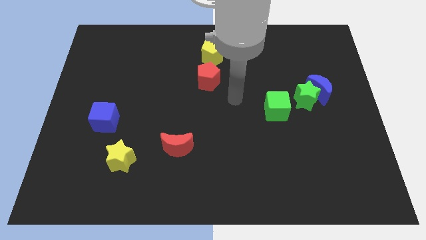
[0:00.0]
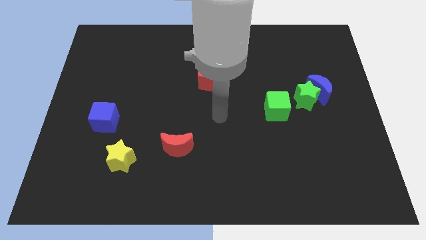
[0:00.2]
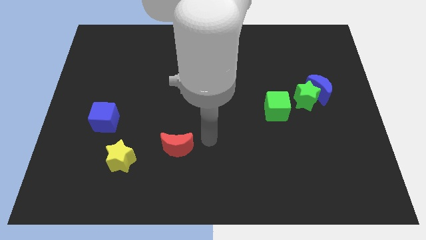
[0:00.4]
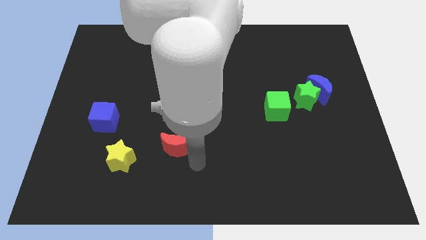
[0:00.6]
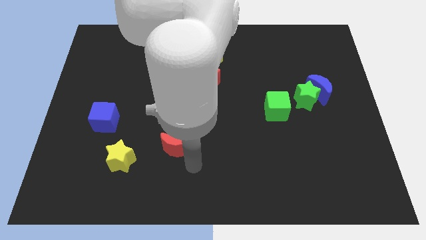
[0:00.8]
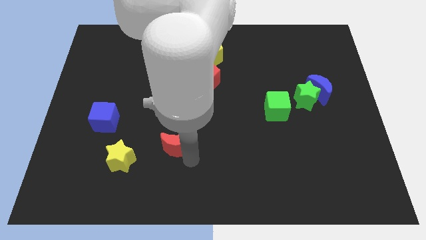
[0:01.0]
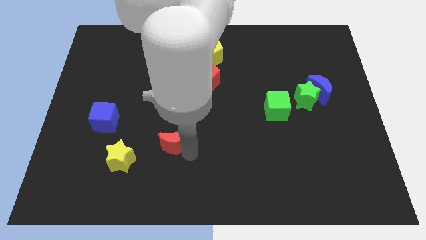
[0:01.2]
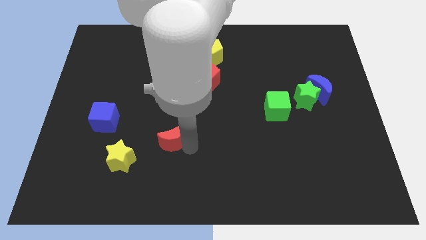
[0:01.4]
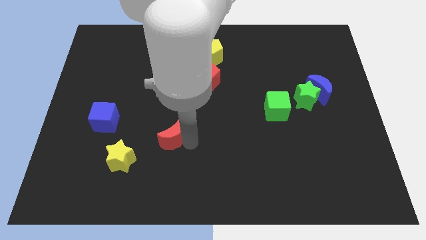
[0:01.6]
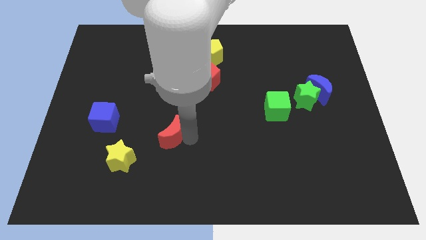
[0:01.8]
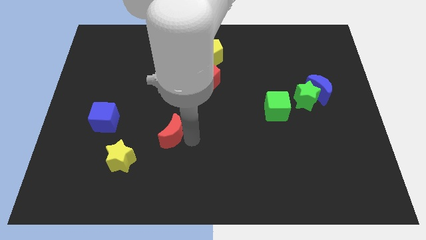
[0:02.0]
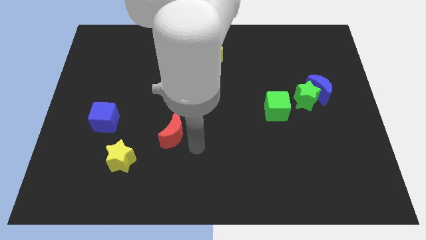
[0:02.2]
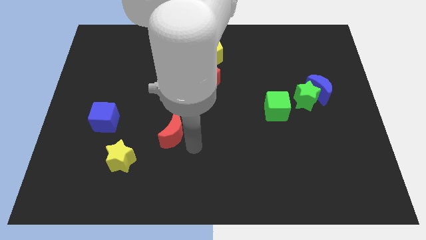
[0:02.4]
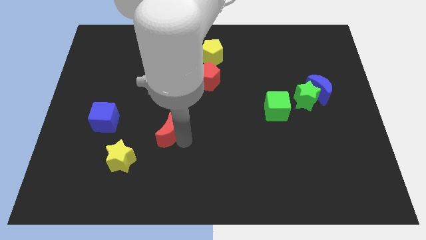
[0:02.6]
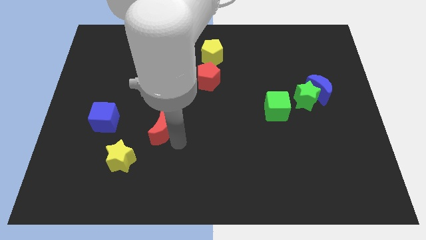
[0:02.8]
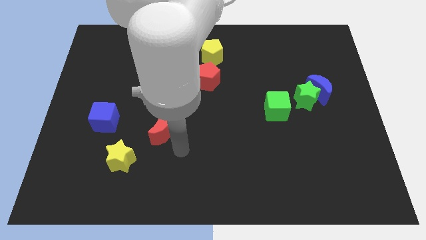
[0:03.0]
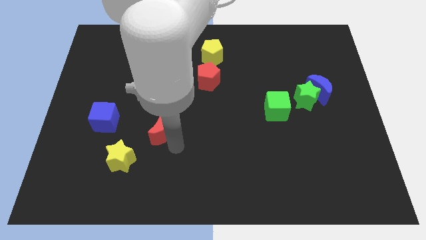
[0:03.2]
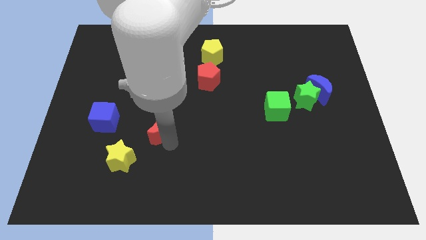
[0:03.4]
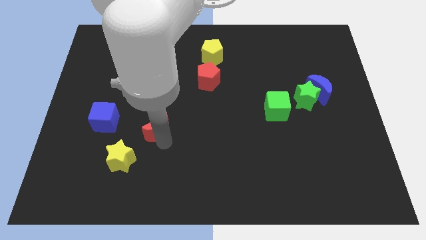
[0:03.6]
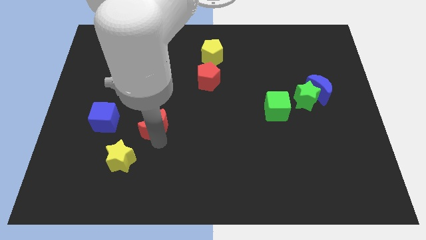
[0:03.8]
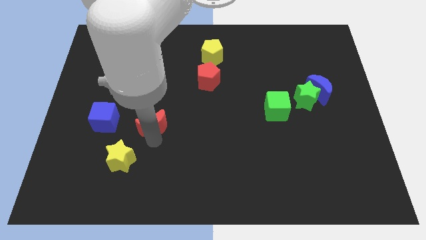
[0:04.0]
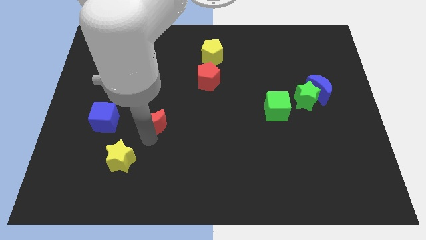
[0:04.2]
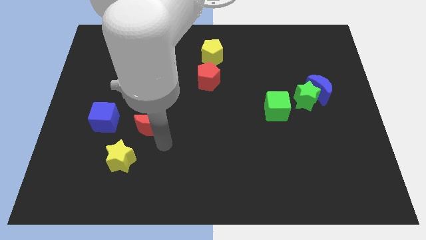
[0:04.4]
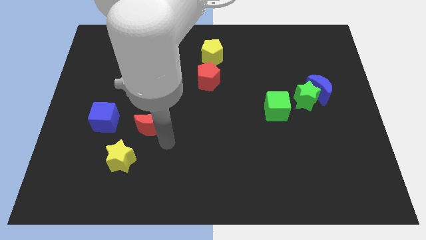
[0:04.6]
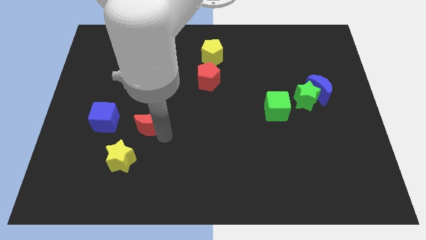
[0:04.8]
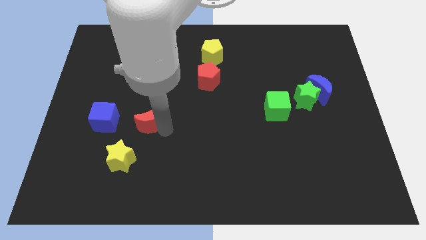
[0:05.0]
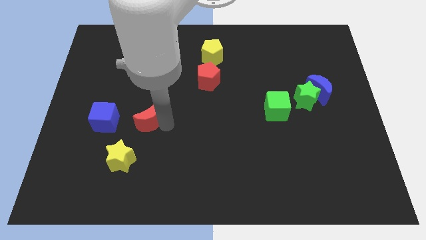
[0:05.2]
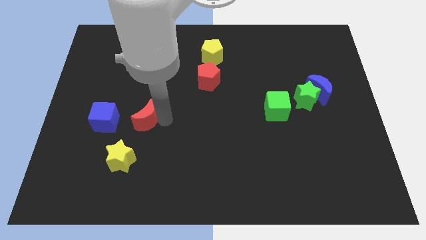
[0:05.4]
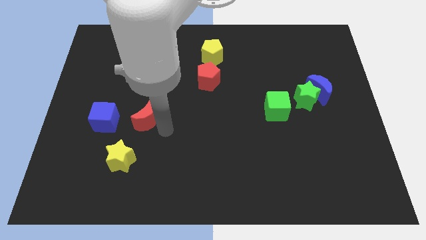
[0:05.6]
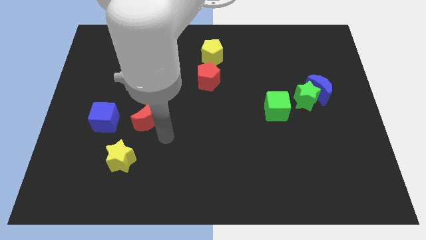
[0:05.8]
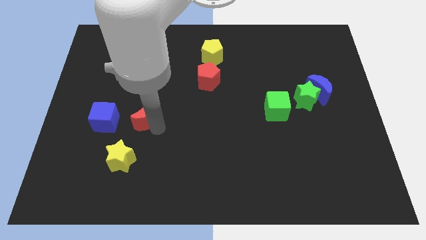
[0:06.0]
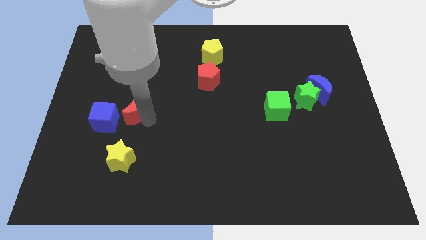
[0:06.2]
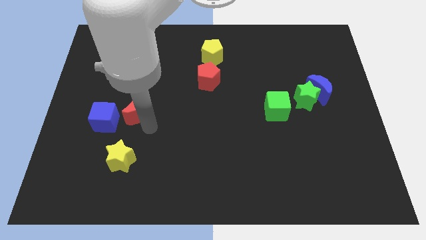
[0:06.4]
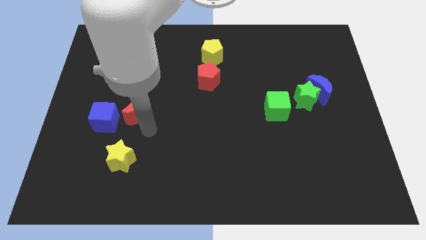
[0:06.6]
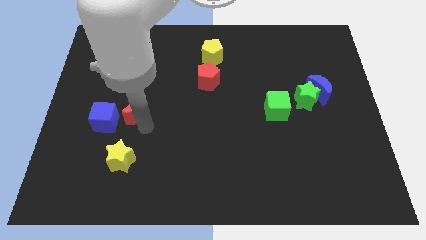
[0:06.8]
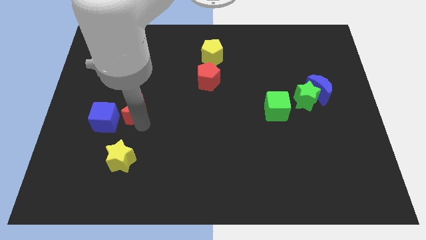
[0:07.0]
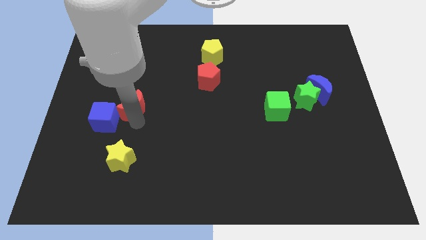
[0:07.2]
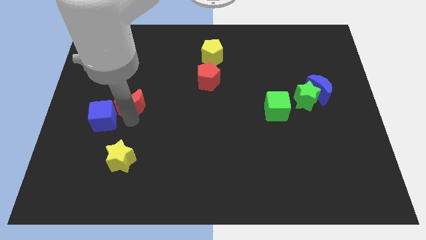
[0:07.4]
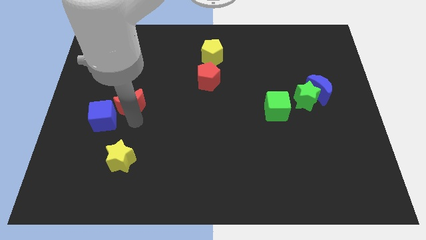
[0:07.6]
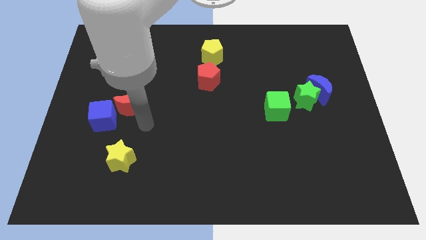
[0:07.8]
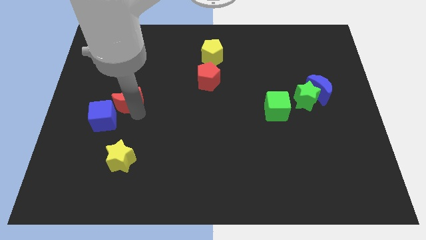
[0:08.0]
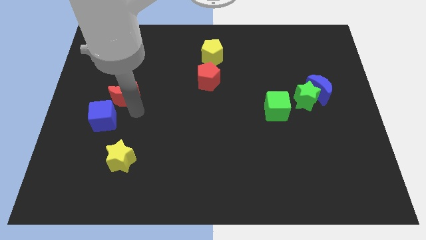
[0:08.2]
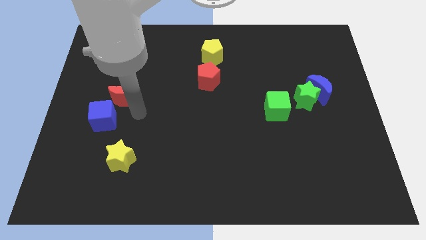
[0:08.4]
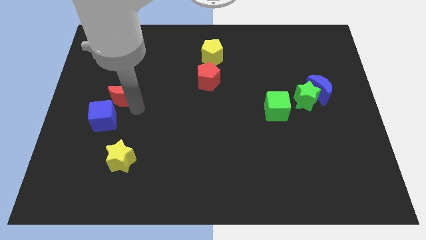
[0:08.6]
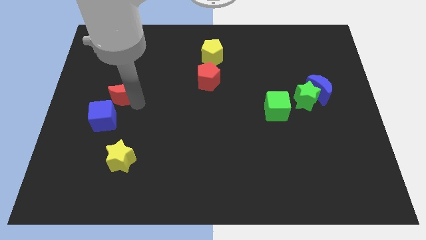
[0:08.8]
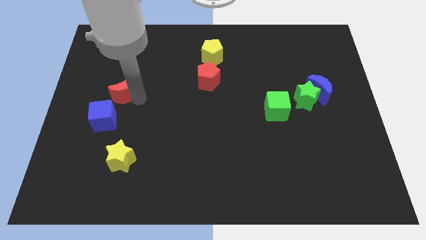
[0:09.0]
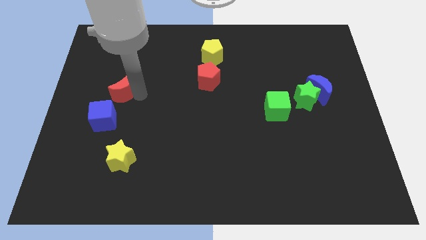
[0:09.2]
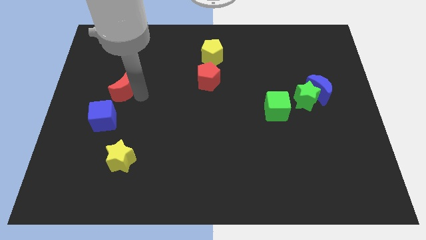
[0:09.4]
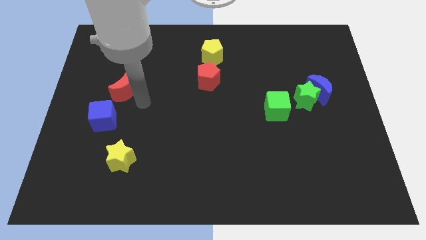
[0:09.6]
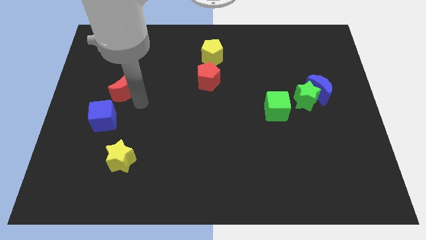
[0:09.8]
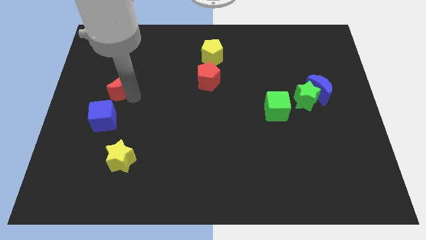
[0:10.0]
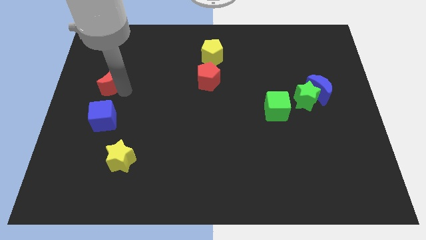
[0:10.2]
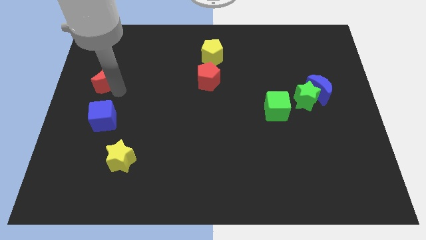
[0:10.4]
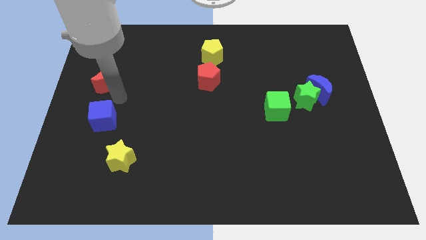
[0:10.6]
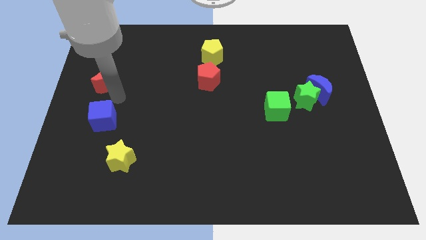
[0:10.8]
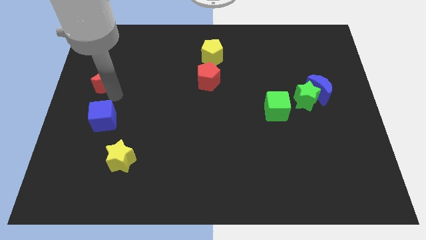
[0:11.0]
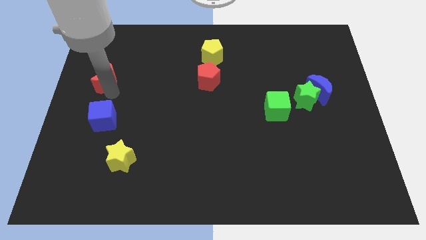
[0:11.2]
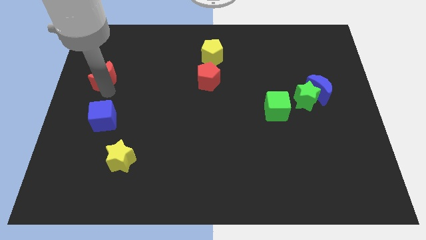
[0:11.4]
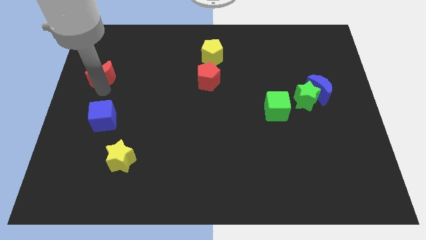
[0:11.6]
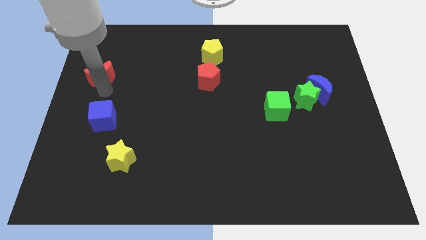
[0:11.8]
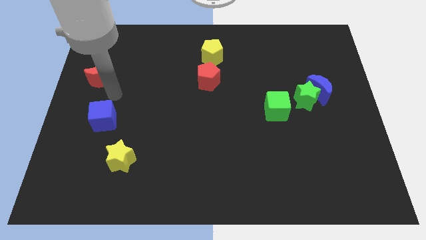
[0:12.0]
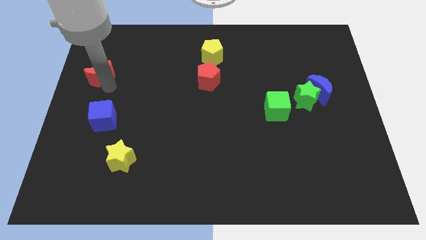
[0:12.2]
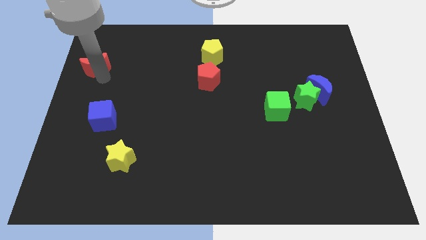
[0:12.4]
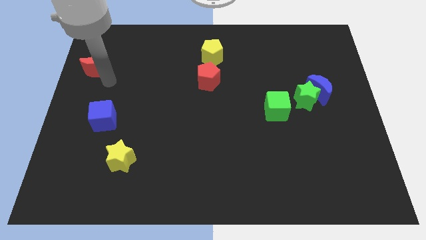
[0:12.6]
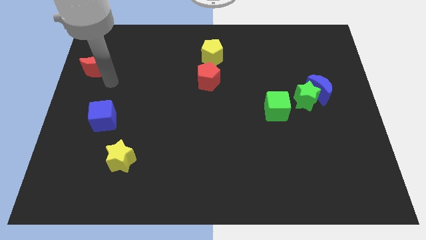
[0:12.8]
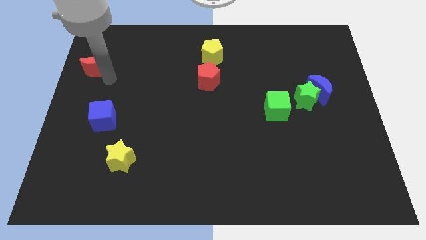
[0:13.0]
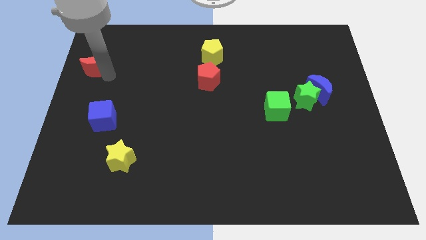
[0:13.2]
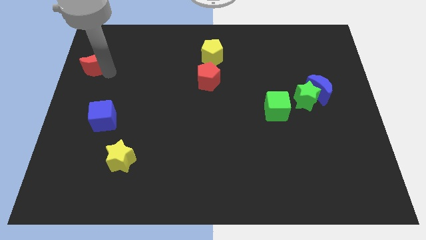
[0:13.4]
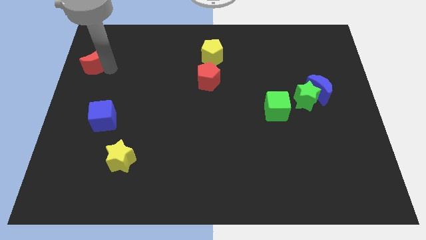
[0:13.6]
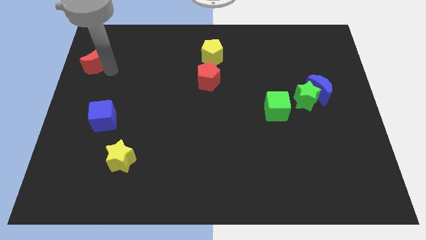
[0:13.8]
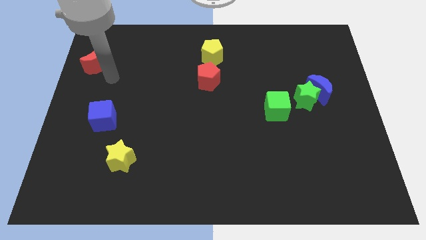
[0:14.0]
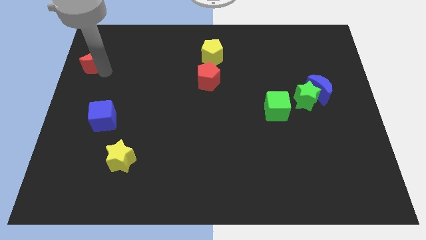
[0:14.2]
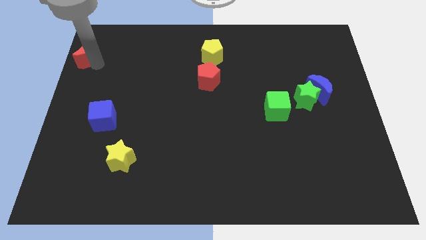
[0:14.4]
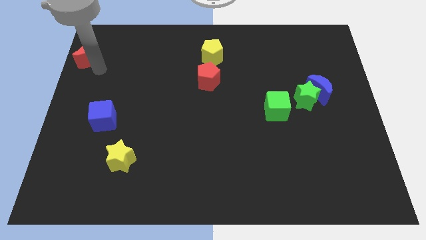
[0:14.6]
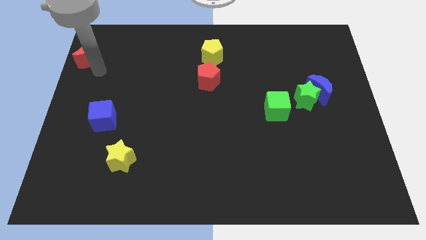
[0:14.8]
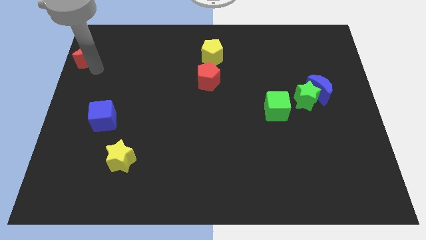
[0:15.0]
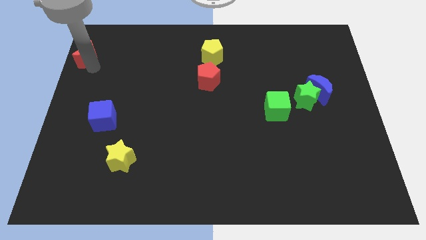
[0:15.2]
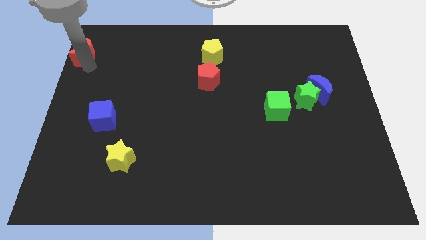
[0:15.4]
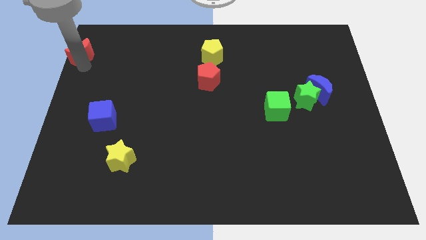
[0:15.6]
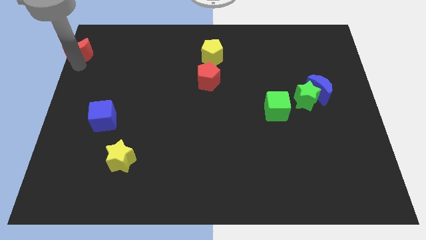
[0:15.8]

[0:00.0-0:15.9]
move the red moon to the top left
